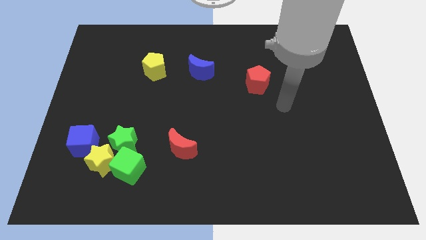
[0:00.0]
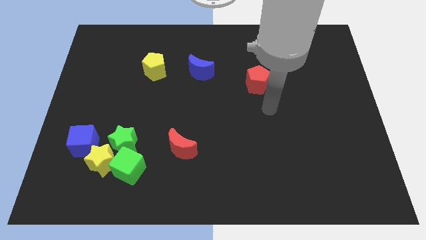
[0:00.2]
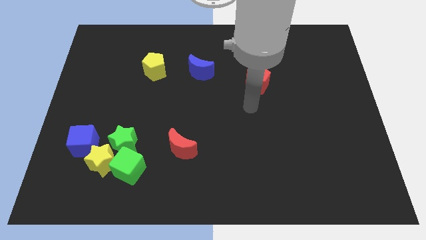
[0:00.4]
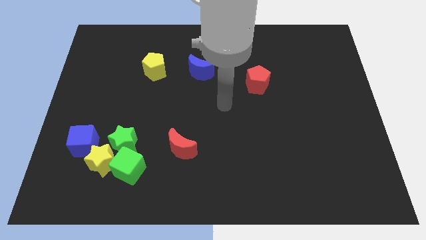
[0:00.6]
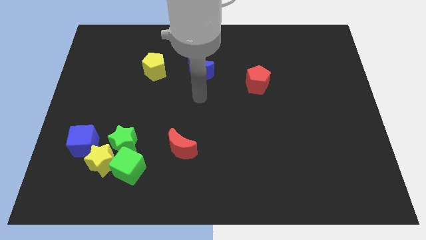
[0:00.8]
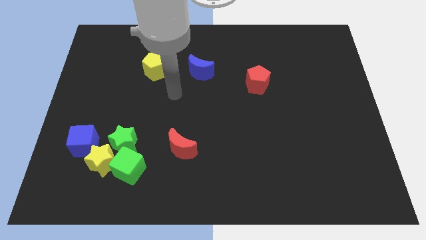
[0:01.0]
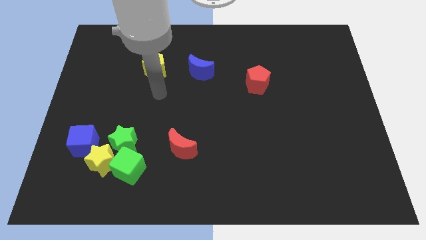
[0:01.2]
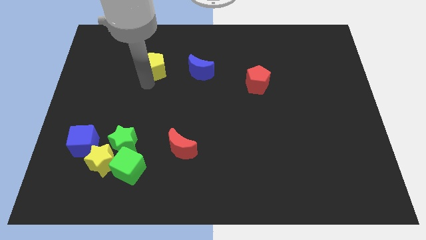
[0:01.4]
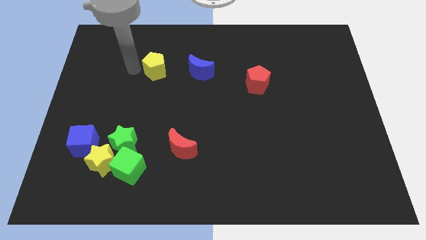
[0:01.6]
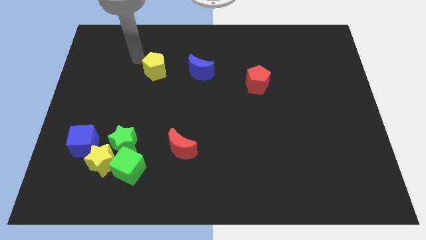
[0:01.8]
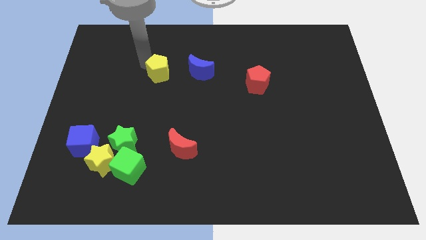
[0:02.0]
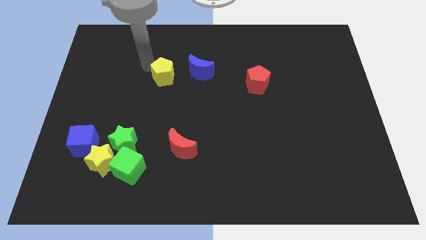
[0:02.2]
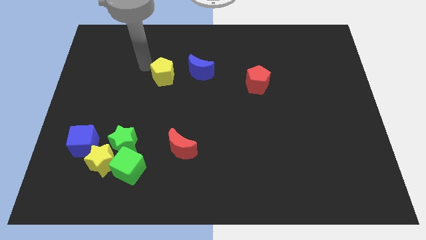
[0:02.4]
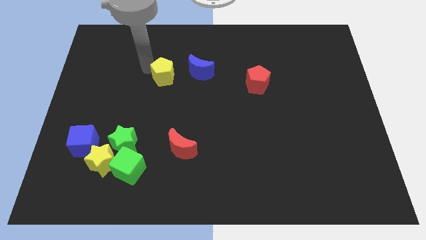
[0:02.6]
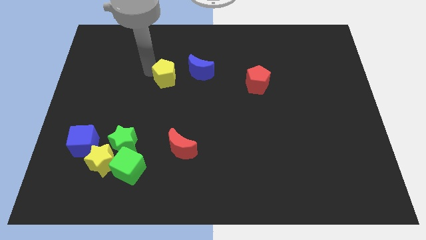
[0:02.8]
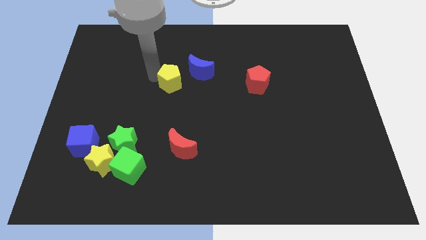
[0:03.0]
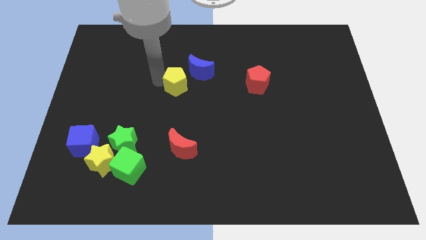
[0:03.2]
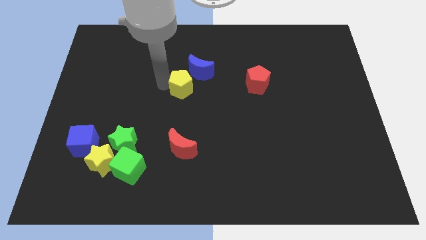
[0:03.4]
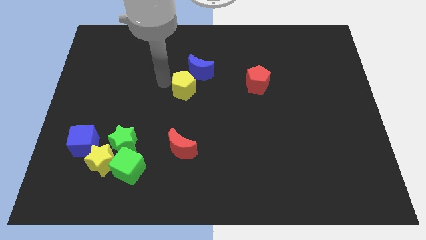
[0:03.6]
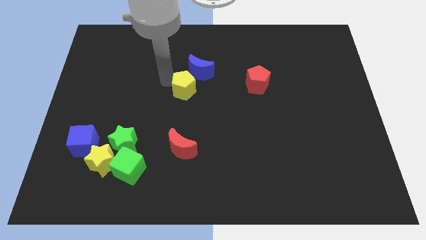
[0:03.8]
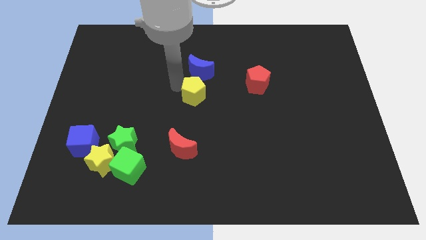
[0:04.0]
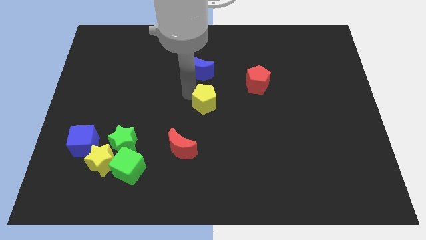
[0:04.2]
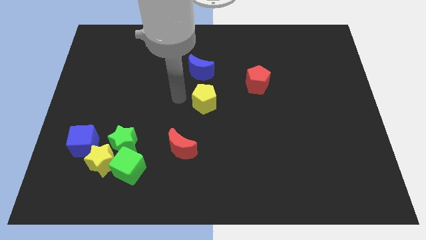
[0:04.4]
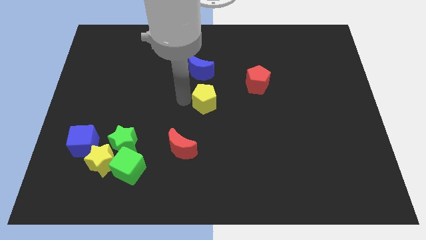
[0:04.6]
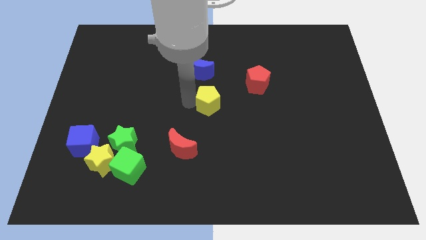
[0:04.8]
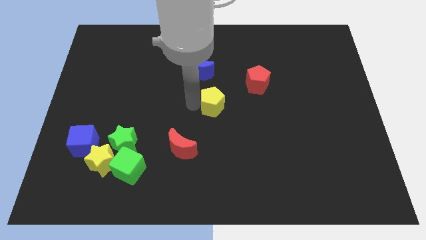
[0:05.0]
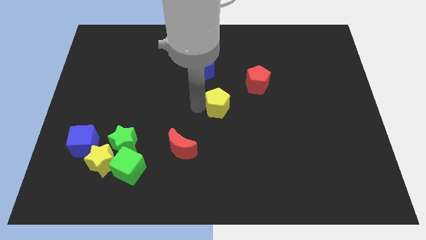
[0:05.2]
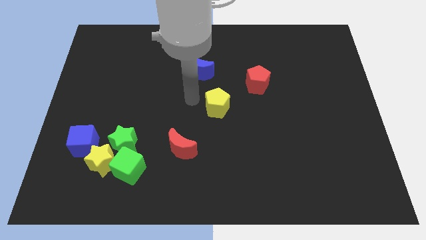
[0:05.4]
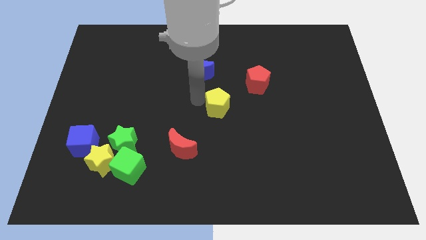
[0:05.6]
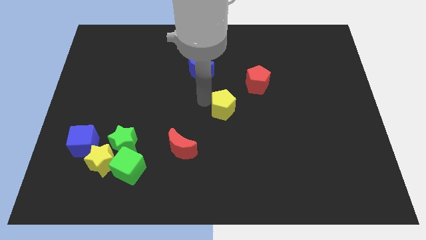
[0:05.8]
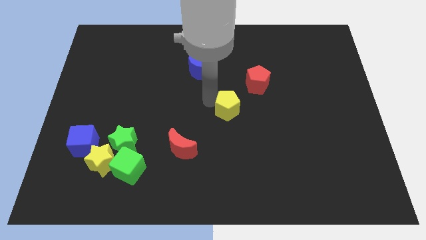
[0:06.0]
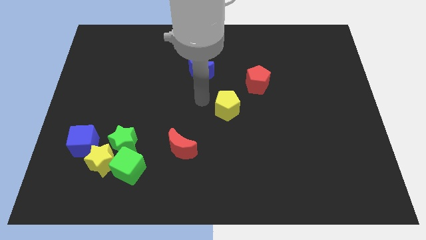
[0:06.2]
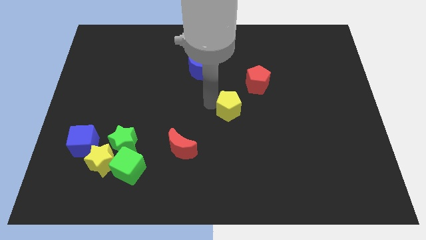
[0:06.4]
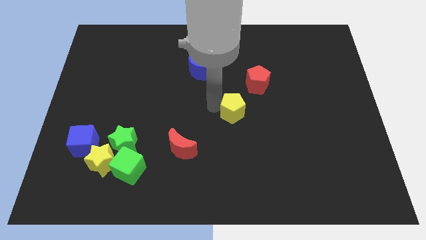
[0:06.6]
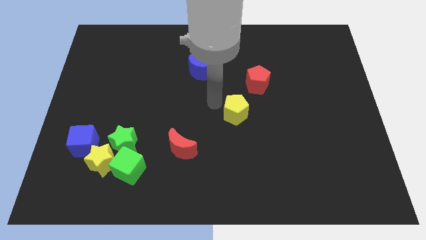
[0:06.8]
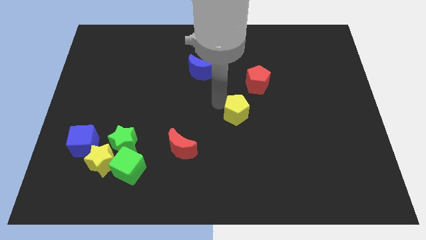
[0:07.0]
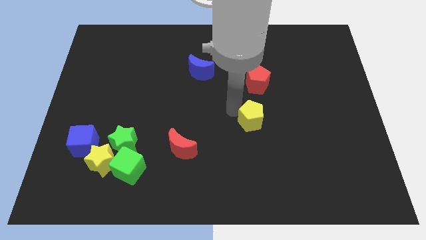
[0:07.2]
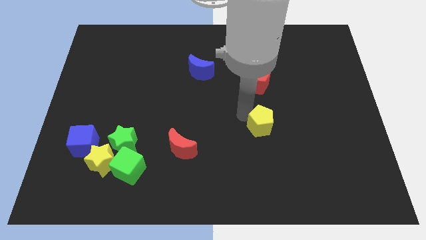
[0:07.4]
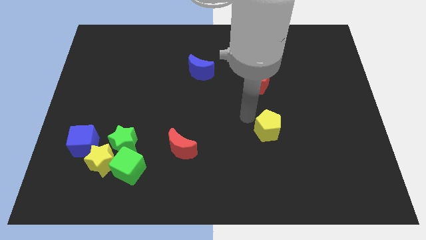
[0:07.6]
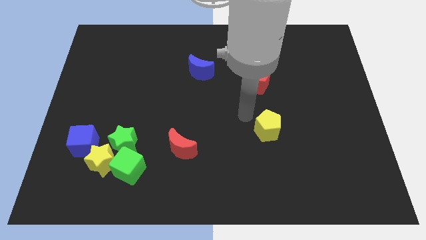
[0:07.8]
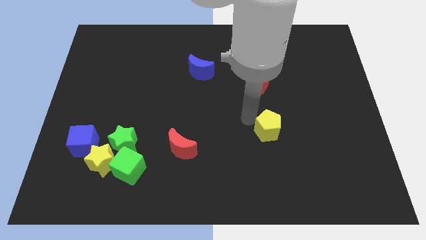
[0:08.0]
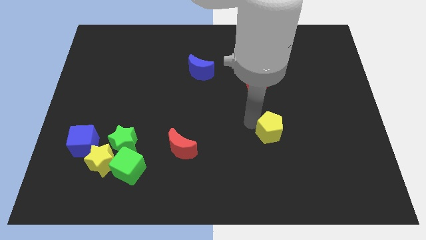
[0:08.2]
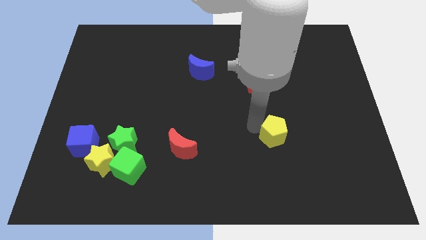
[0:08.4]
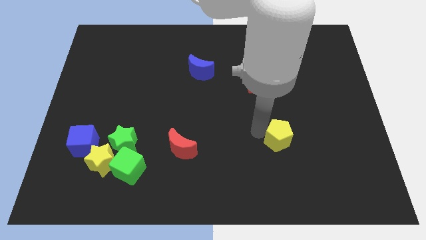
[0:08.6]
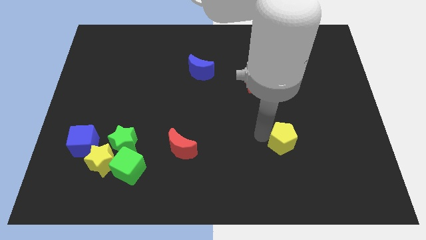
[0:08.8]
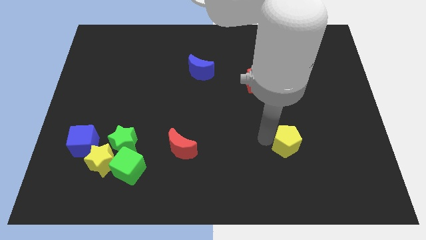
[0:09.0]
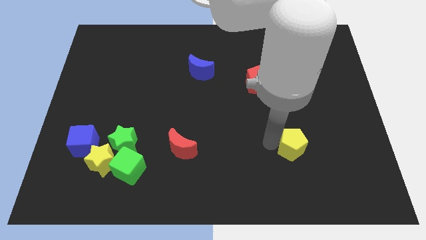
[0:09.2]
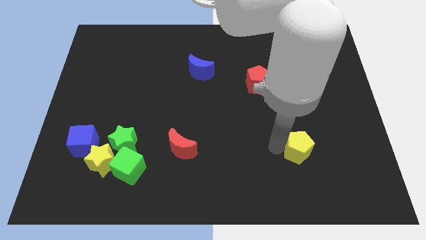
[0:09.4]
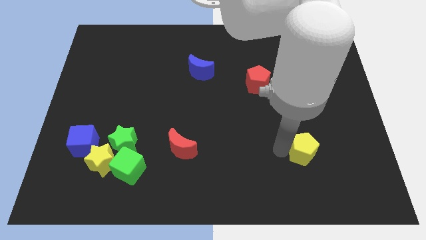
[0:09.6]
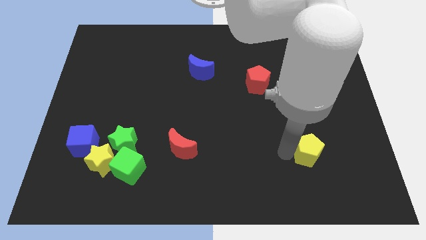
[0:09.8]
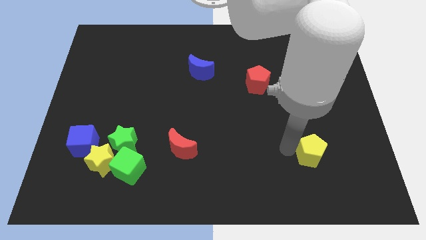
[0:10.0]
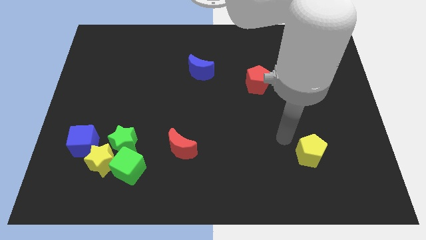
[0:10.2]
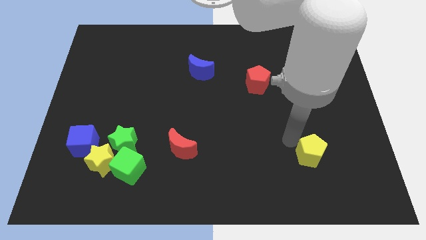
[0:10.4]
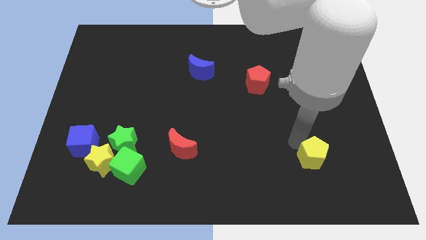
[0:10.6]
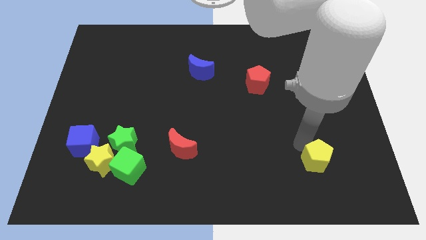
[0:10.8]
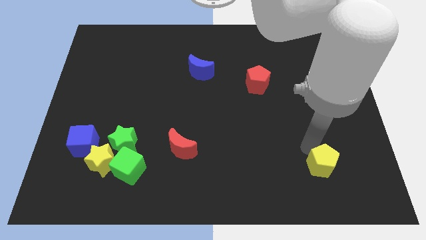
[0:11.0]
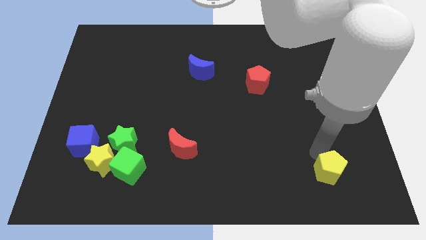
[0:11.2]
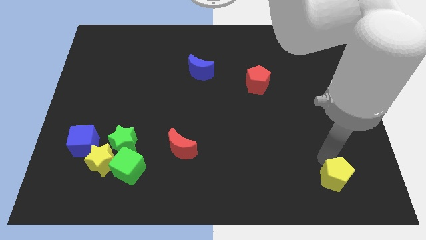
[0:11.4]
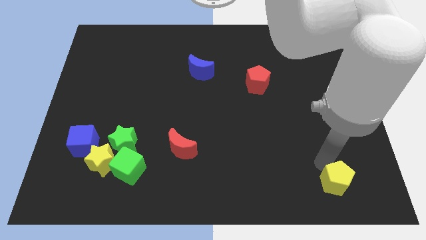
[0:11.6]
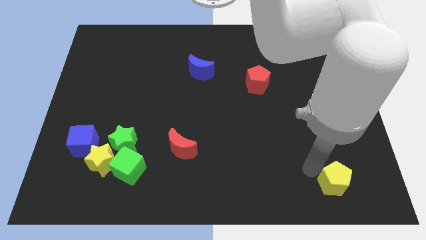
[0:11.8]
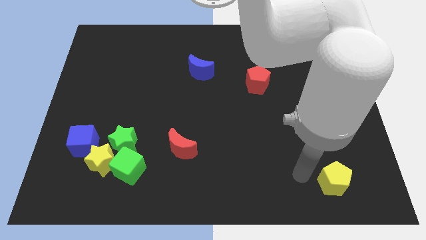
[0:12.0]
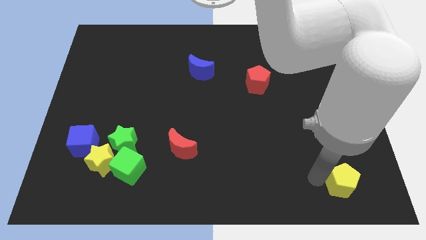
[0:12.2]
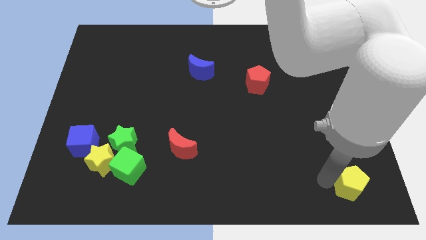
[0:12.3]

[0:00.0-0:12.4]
put the yellow pentagon to the bottom right
